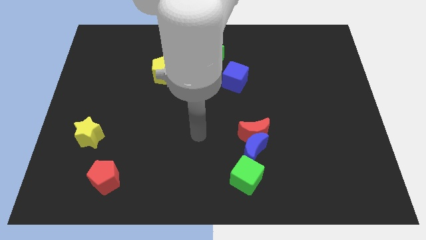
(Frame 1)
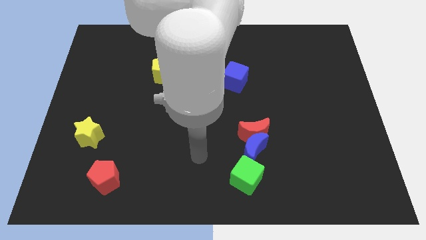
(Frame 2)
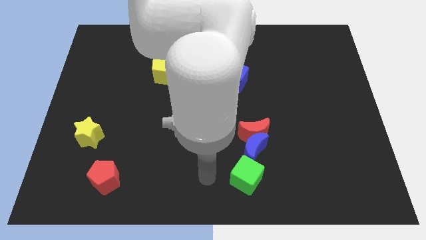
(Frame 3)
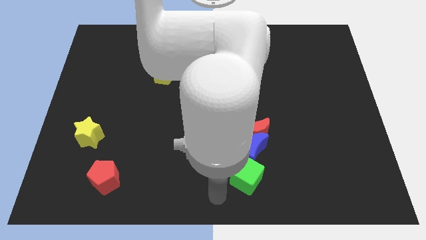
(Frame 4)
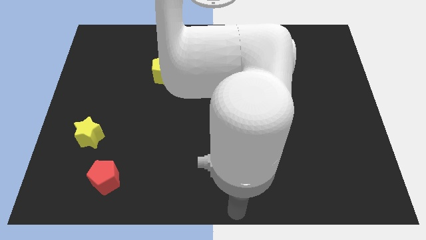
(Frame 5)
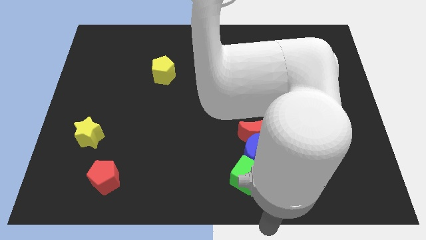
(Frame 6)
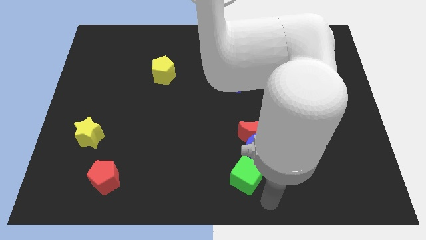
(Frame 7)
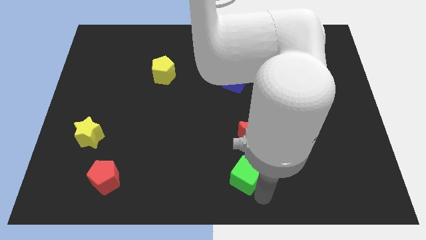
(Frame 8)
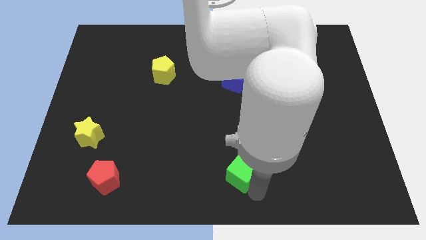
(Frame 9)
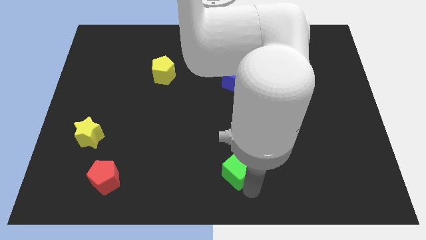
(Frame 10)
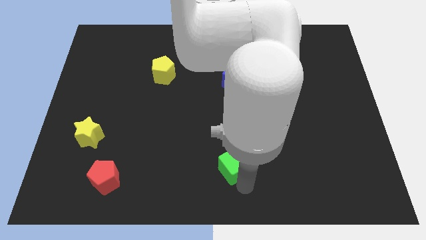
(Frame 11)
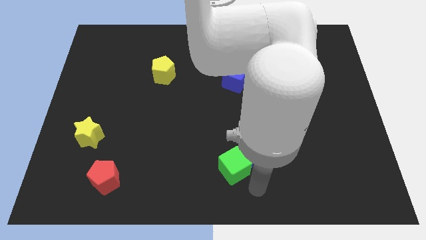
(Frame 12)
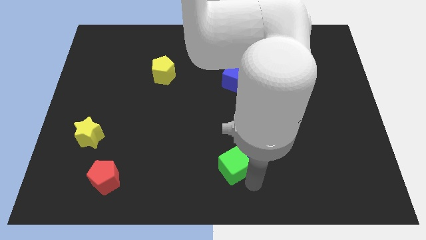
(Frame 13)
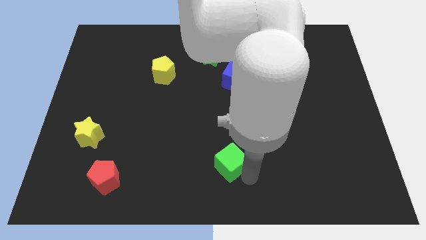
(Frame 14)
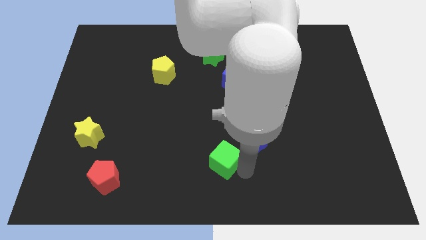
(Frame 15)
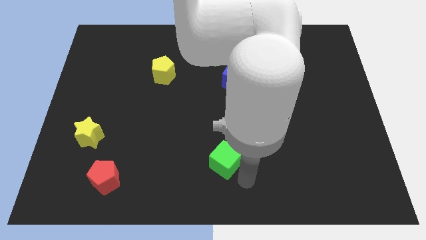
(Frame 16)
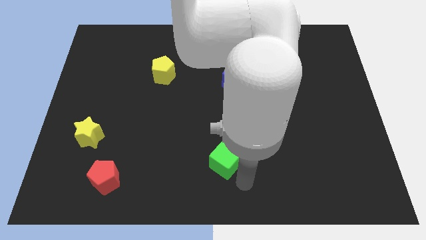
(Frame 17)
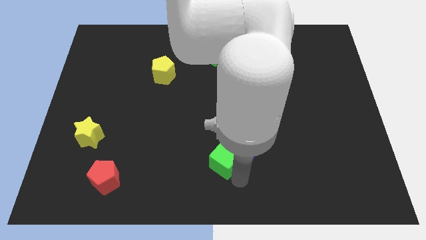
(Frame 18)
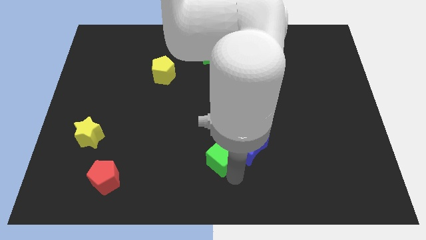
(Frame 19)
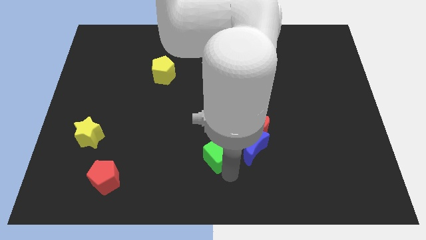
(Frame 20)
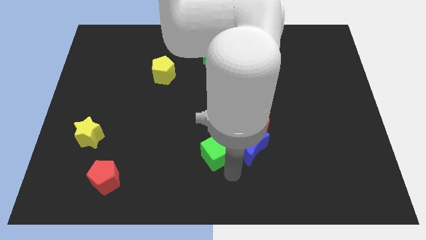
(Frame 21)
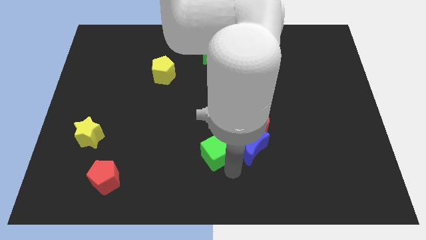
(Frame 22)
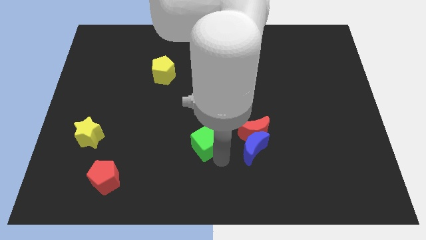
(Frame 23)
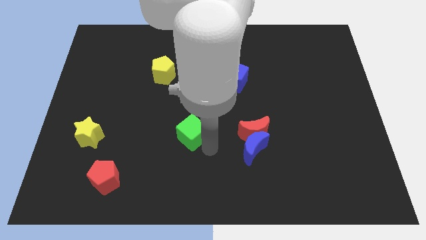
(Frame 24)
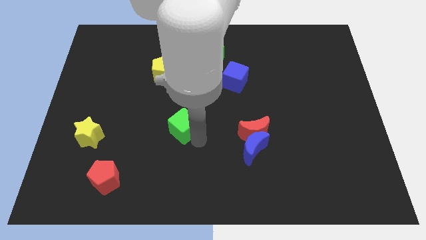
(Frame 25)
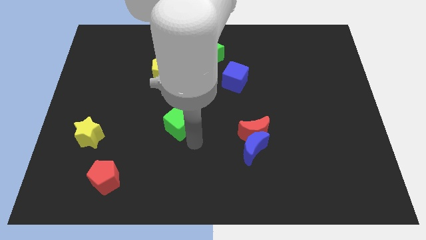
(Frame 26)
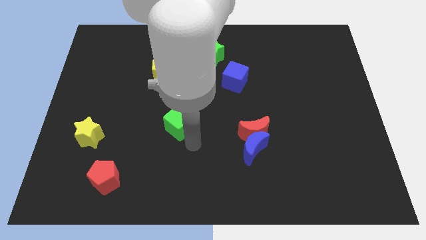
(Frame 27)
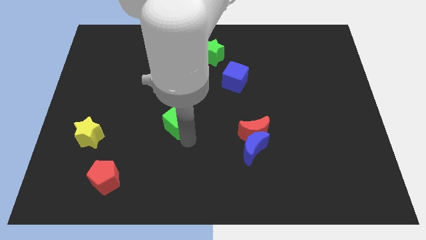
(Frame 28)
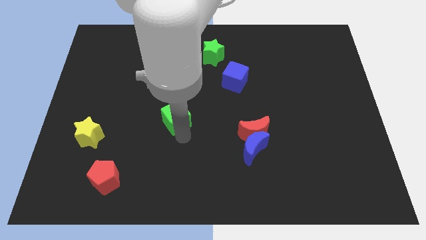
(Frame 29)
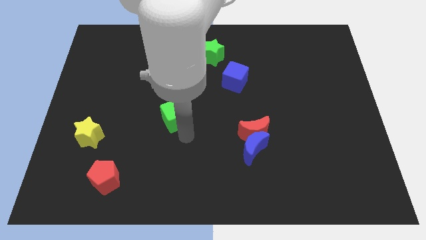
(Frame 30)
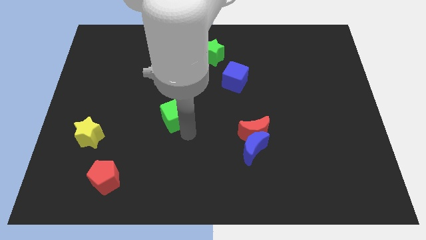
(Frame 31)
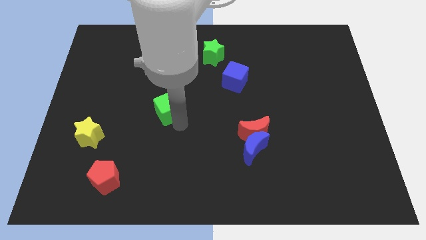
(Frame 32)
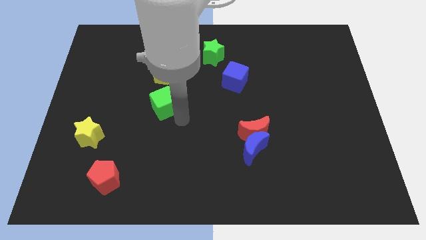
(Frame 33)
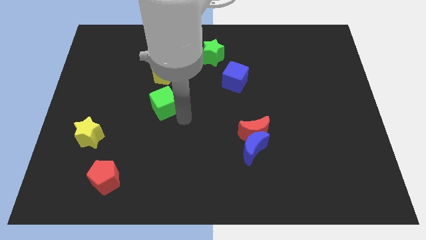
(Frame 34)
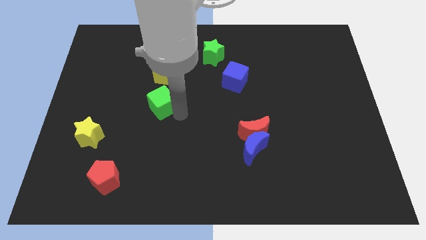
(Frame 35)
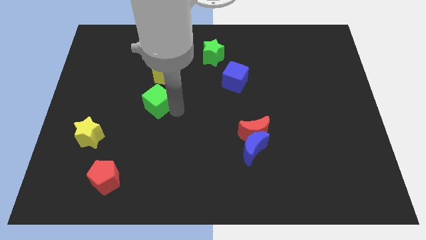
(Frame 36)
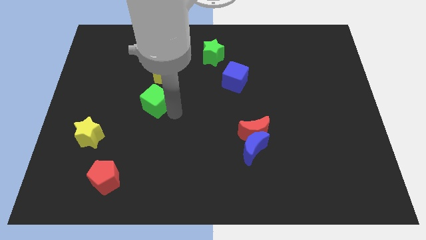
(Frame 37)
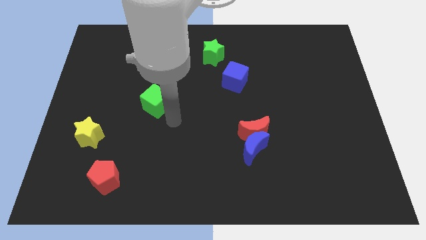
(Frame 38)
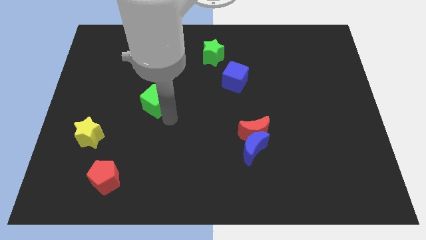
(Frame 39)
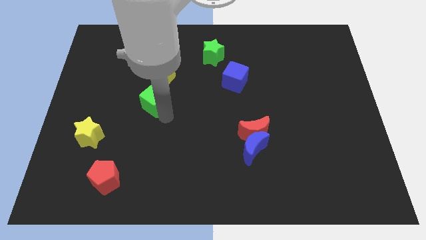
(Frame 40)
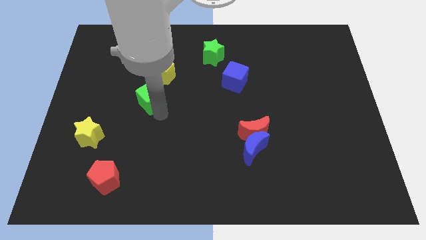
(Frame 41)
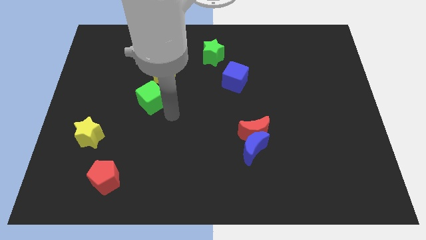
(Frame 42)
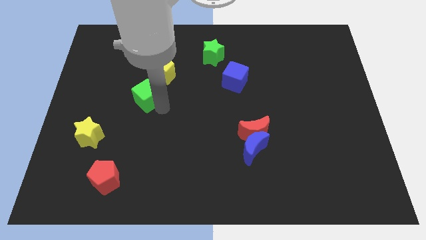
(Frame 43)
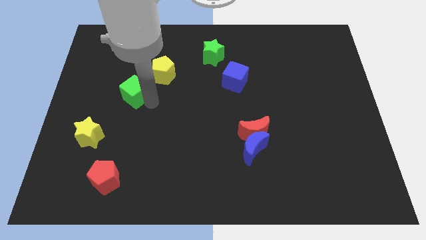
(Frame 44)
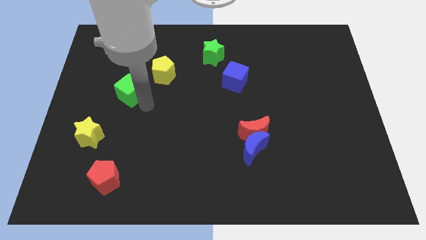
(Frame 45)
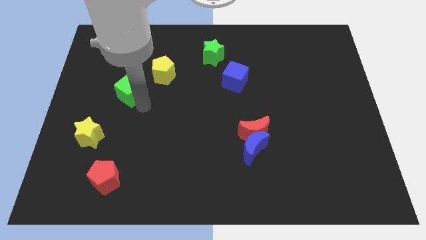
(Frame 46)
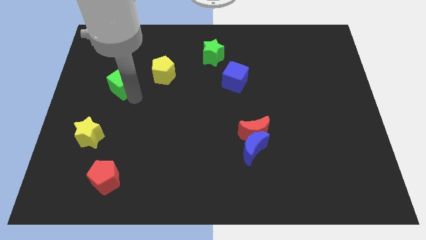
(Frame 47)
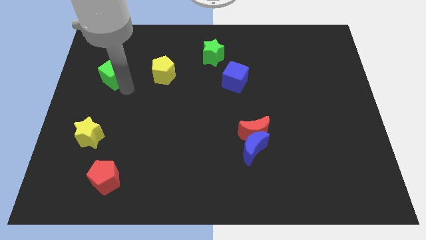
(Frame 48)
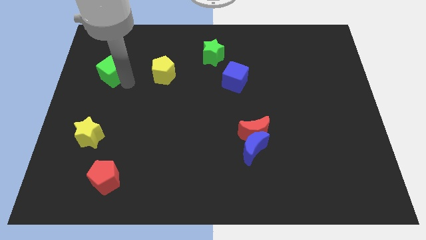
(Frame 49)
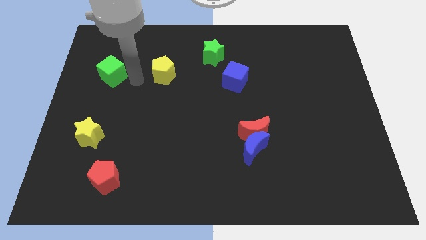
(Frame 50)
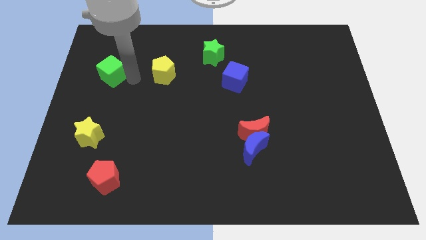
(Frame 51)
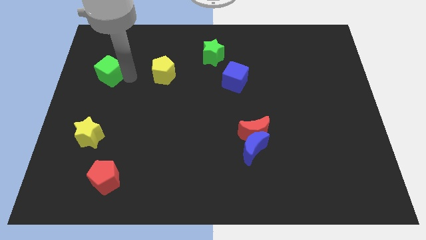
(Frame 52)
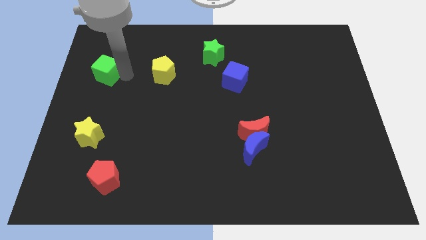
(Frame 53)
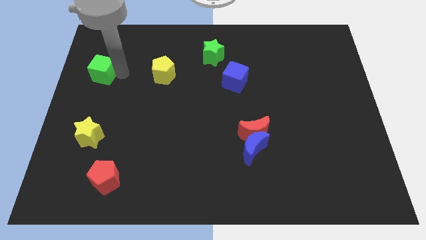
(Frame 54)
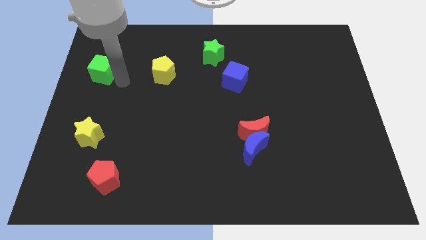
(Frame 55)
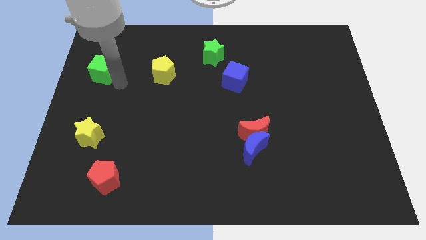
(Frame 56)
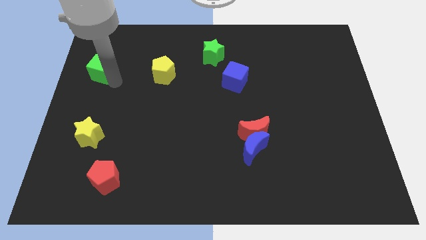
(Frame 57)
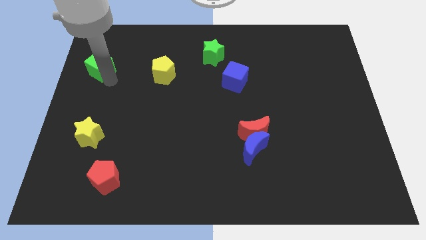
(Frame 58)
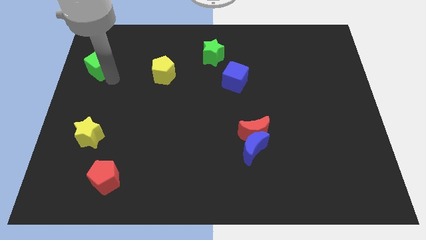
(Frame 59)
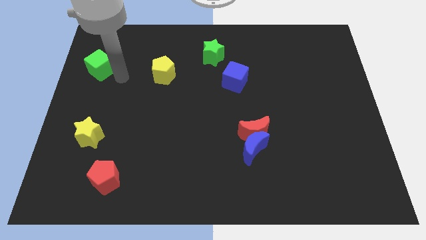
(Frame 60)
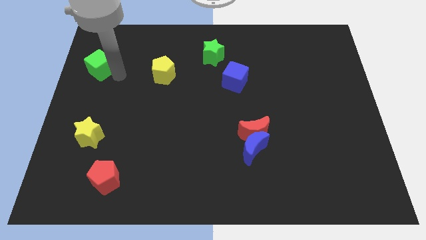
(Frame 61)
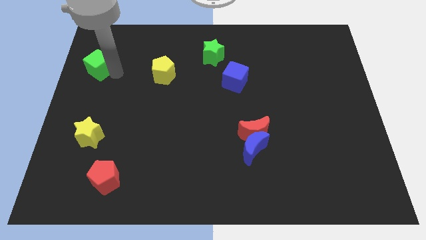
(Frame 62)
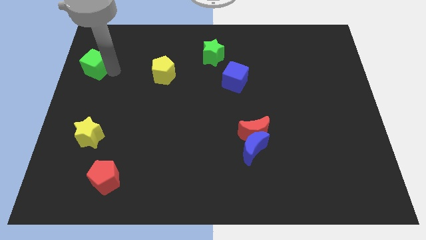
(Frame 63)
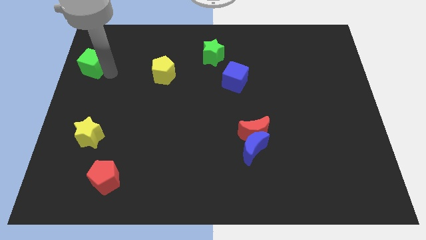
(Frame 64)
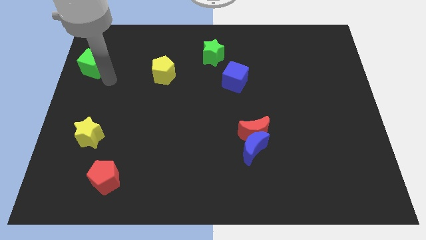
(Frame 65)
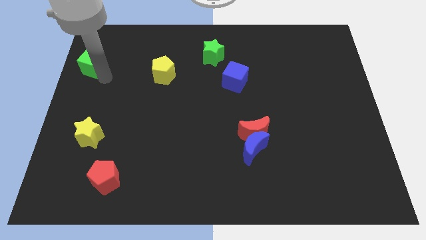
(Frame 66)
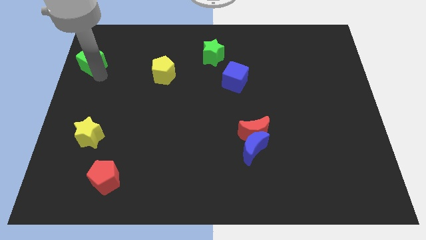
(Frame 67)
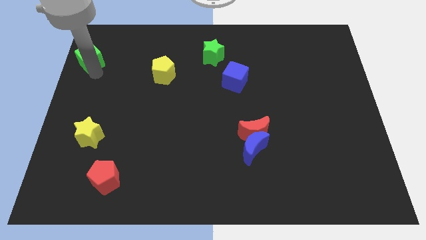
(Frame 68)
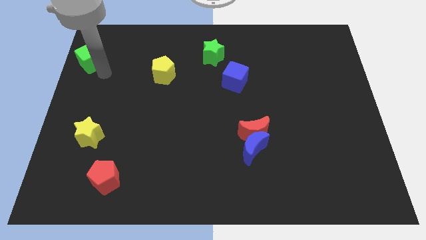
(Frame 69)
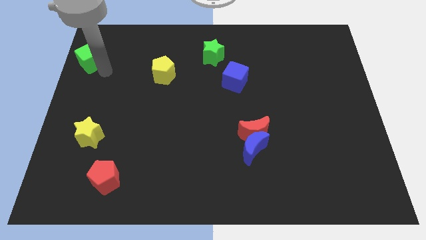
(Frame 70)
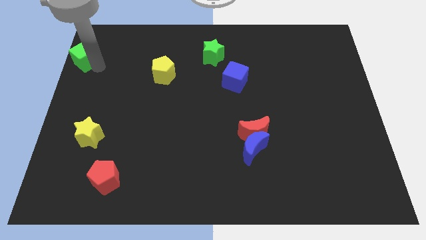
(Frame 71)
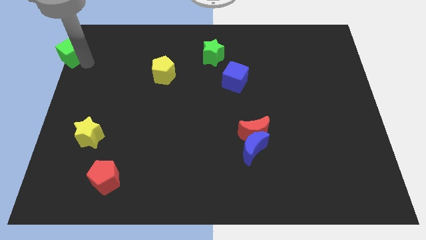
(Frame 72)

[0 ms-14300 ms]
move the green cube to the top left corner
